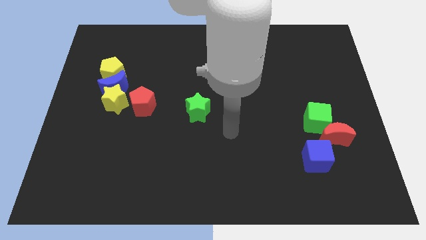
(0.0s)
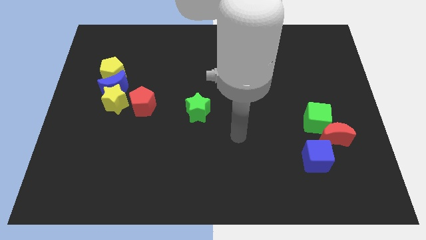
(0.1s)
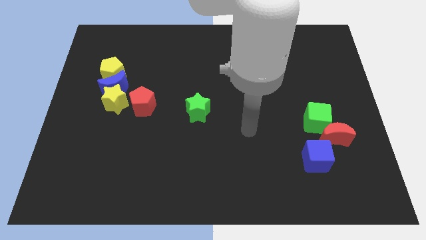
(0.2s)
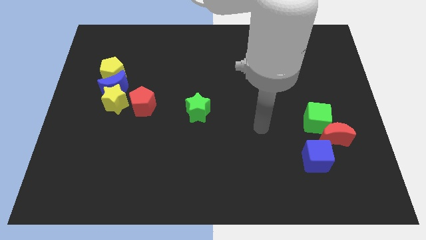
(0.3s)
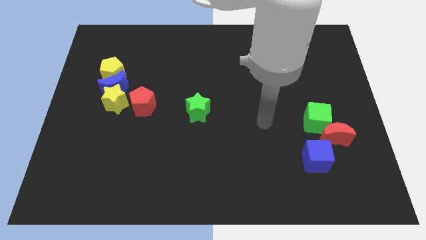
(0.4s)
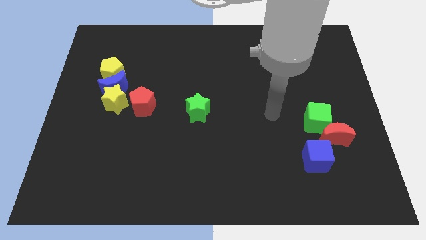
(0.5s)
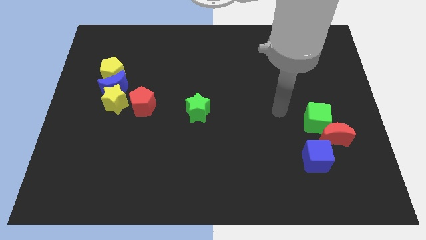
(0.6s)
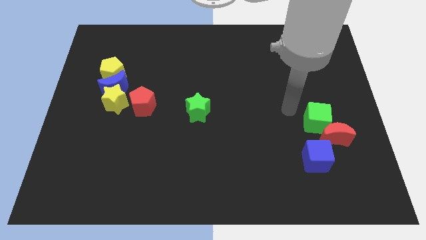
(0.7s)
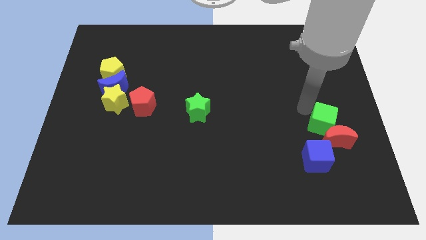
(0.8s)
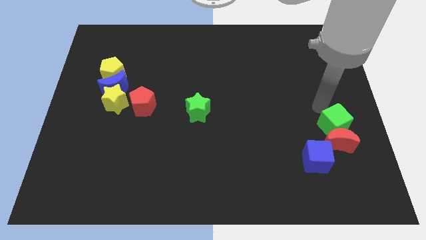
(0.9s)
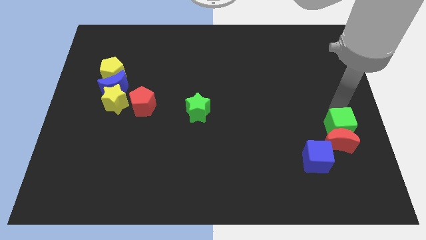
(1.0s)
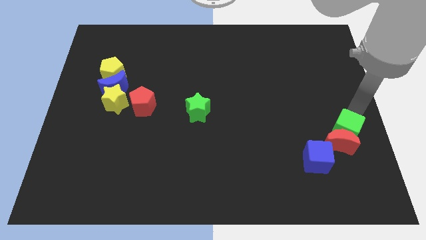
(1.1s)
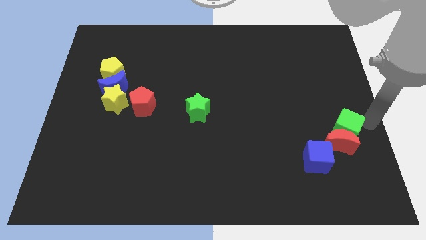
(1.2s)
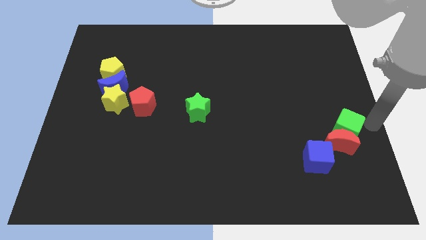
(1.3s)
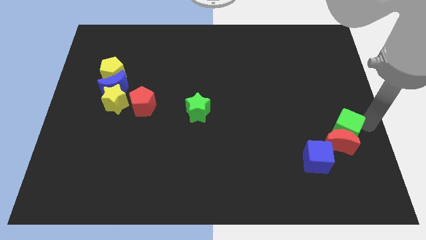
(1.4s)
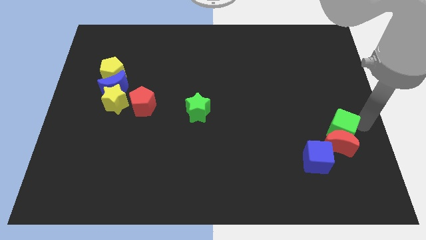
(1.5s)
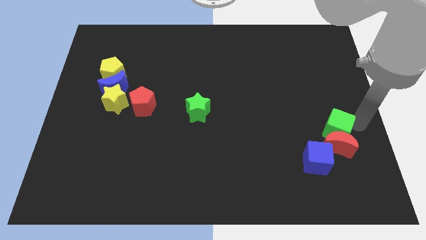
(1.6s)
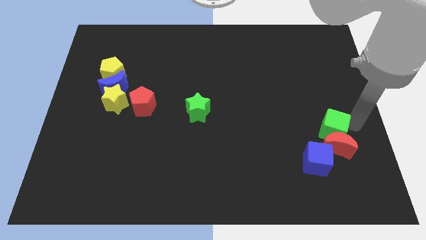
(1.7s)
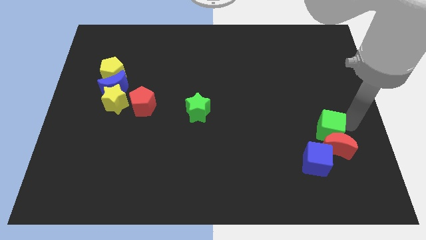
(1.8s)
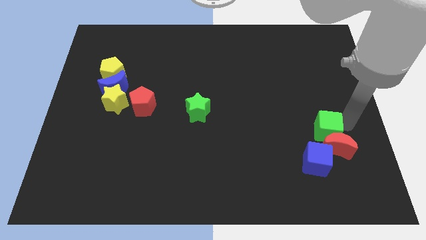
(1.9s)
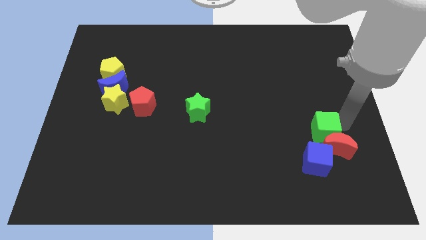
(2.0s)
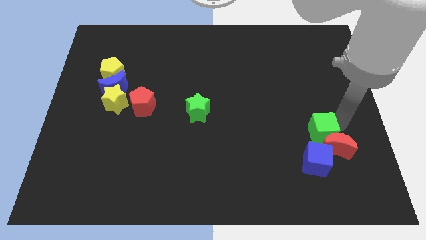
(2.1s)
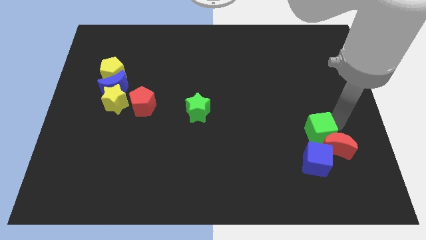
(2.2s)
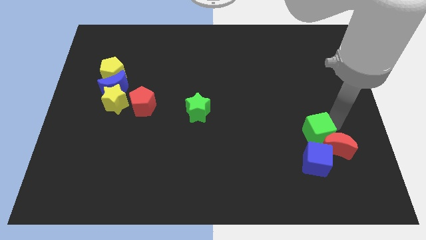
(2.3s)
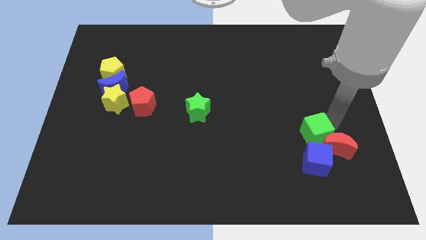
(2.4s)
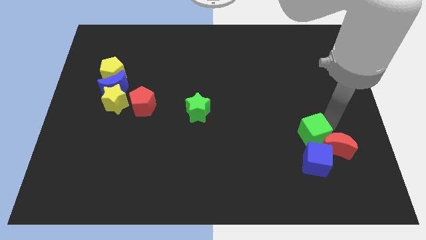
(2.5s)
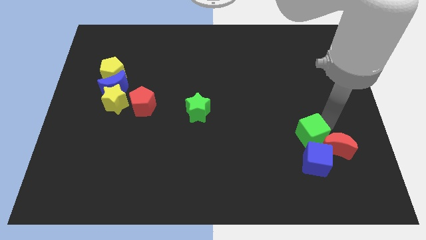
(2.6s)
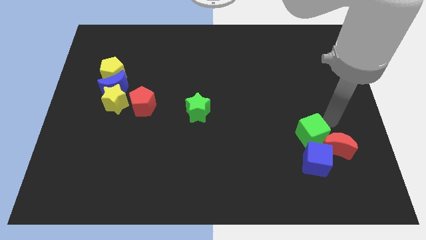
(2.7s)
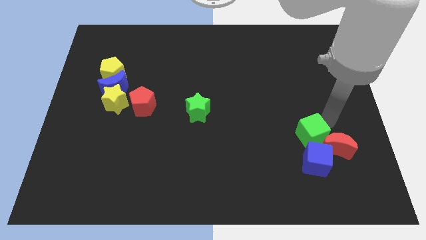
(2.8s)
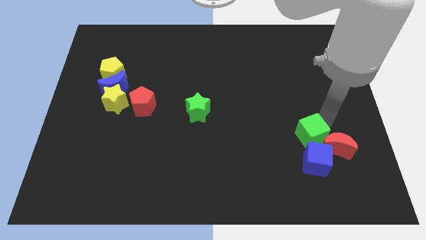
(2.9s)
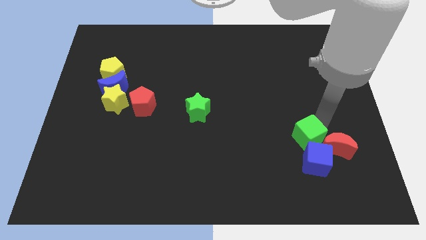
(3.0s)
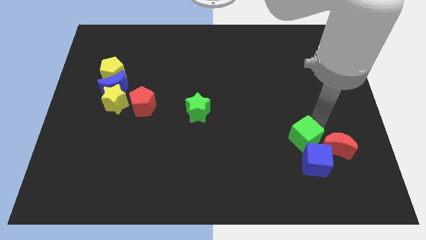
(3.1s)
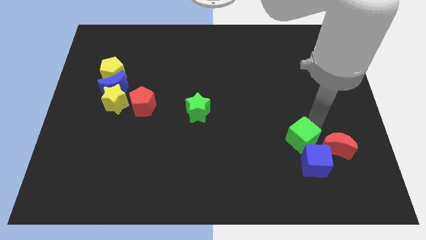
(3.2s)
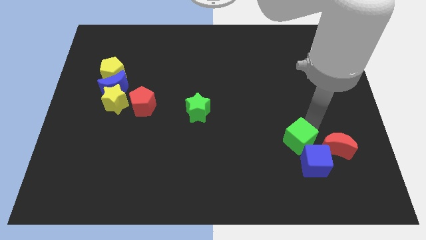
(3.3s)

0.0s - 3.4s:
push the green cube down and left a little bit

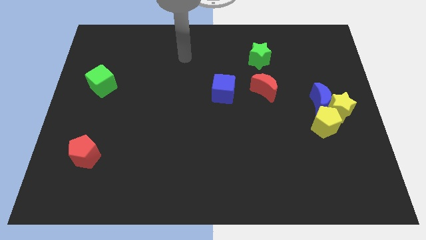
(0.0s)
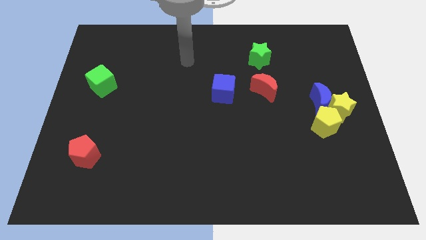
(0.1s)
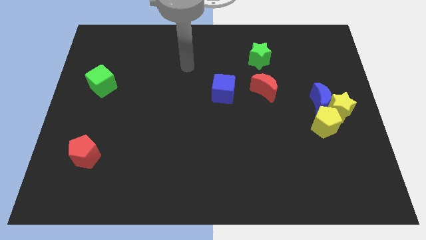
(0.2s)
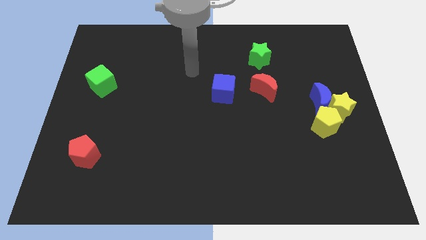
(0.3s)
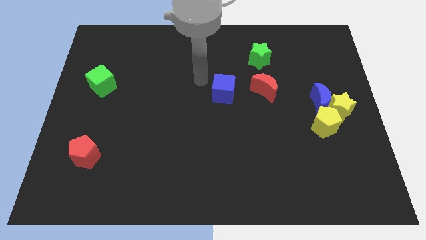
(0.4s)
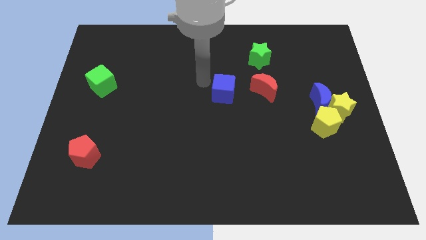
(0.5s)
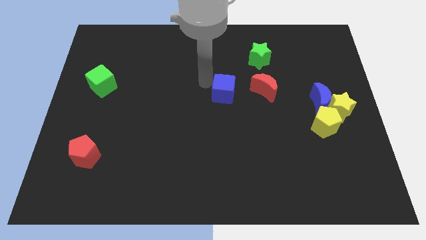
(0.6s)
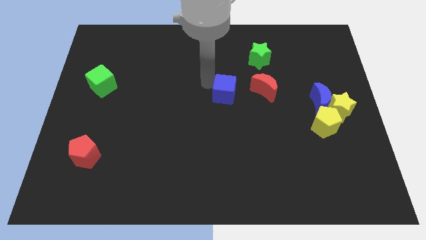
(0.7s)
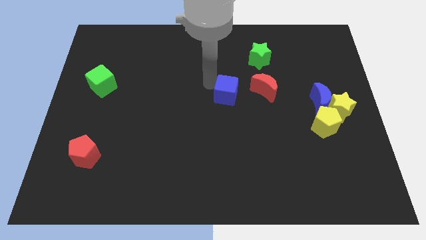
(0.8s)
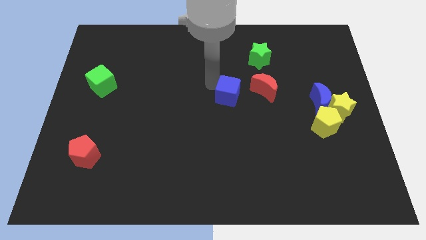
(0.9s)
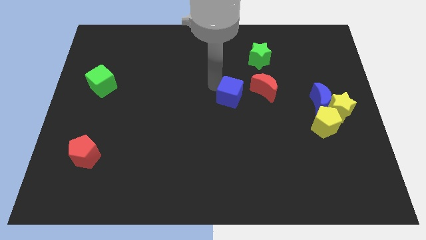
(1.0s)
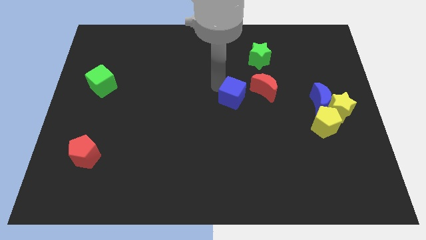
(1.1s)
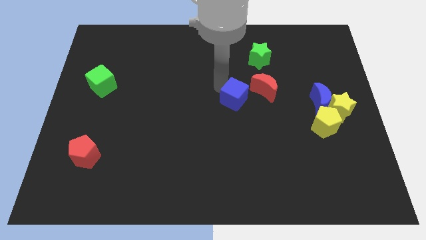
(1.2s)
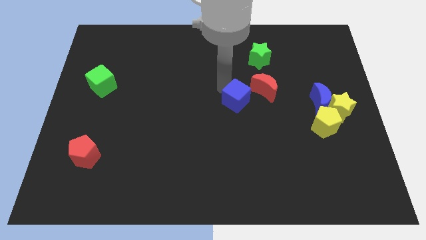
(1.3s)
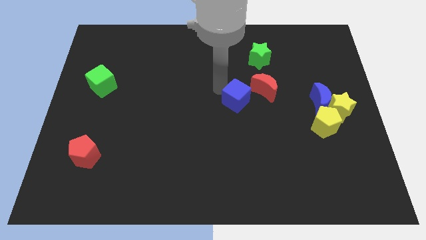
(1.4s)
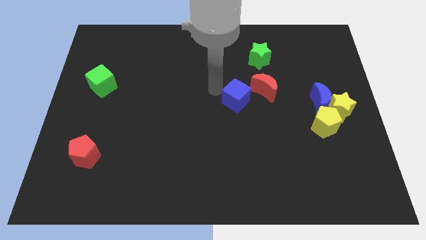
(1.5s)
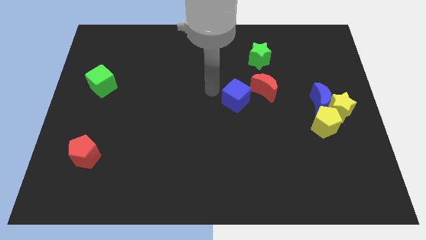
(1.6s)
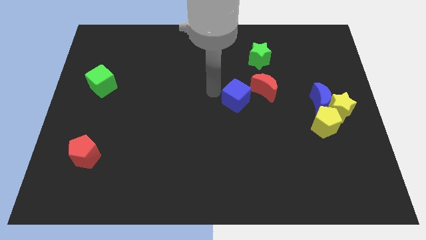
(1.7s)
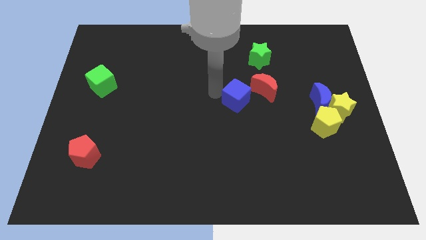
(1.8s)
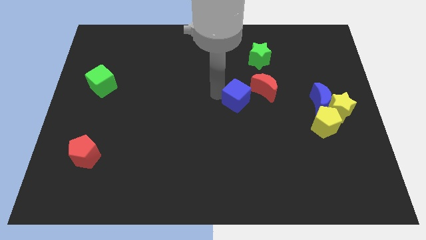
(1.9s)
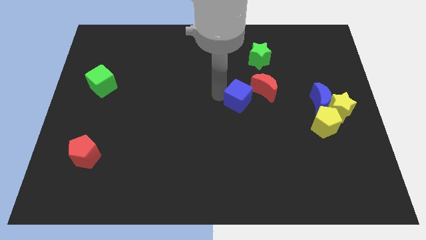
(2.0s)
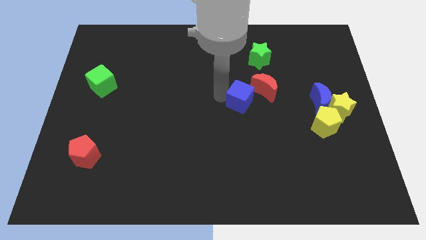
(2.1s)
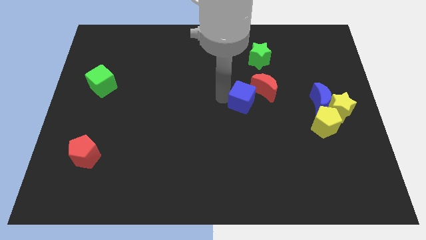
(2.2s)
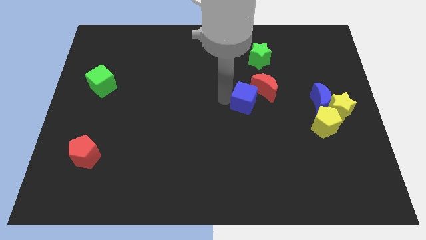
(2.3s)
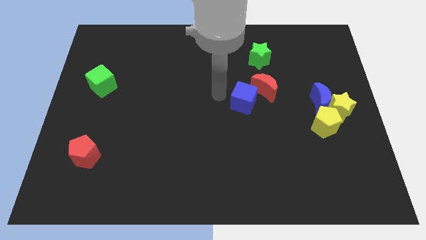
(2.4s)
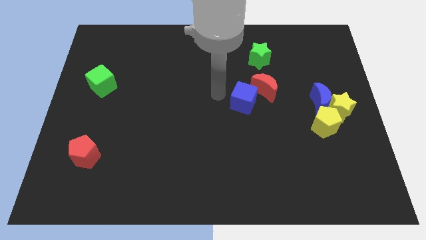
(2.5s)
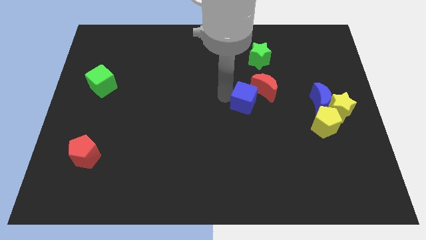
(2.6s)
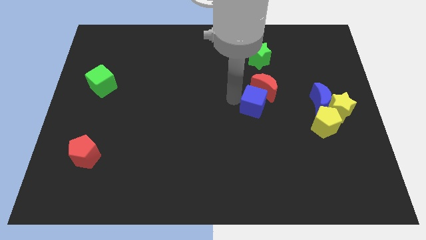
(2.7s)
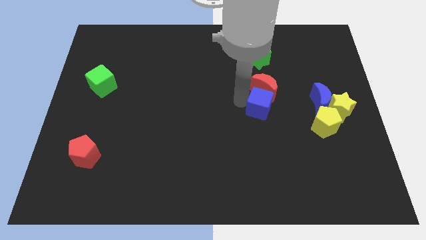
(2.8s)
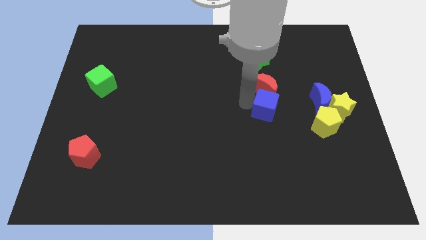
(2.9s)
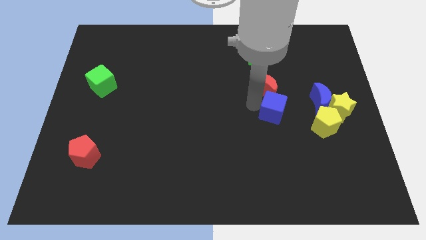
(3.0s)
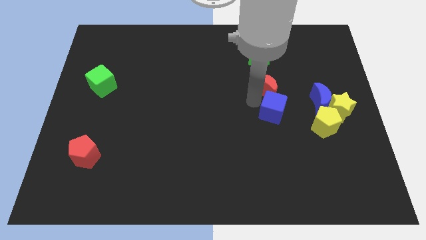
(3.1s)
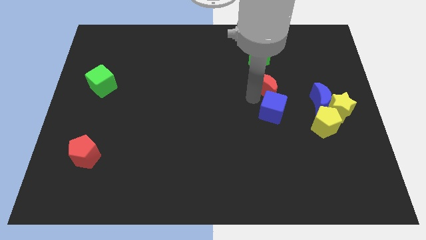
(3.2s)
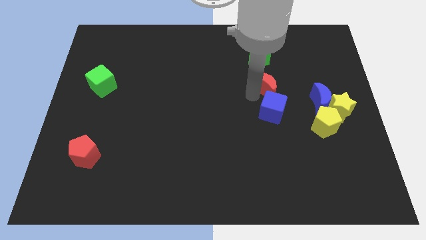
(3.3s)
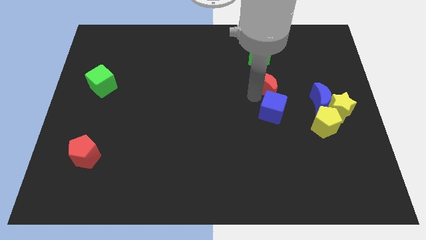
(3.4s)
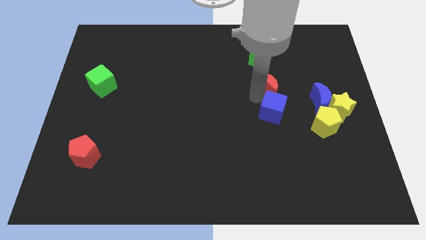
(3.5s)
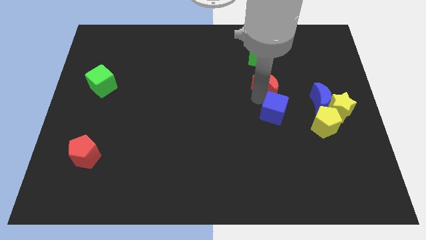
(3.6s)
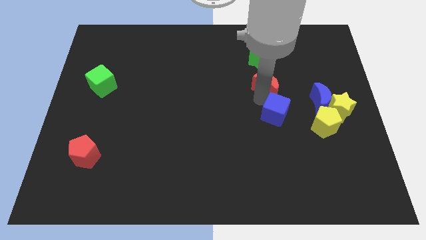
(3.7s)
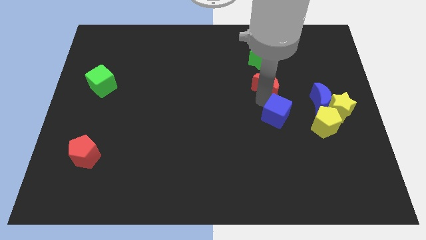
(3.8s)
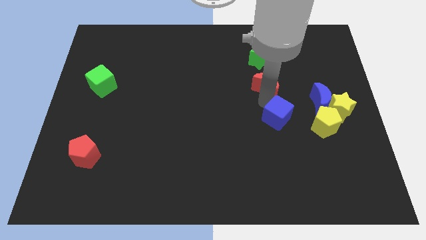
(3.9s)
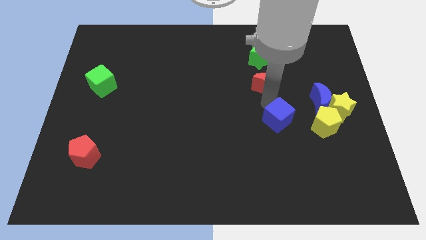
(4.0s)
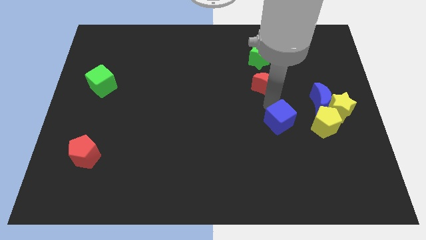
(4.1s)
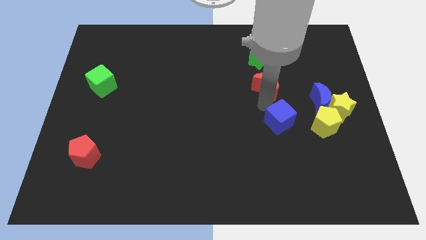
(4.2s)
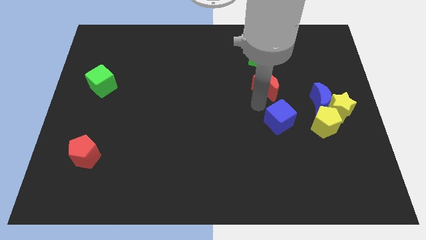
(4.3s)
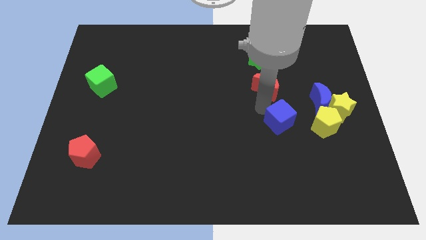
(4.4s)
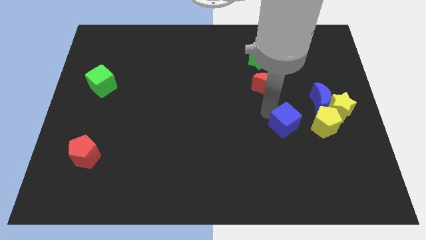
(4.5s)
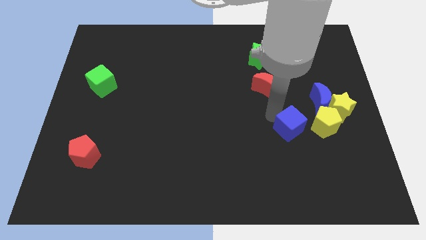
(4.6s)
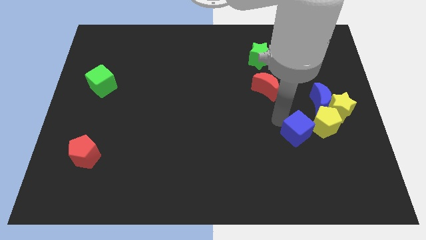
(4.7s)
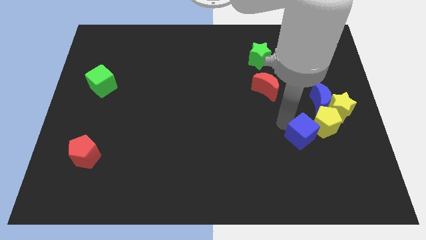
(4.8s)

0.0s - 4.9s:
slide the blue cube diagonally down and to the right
